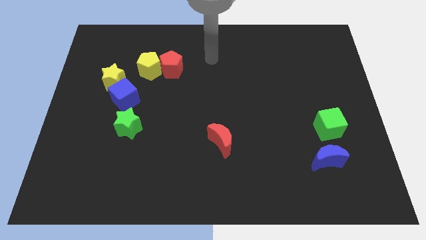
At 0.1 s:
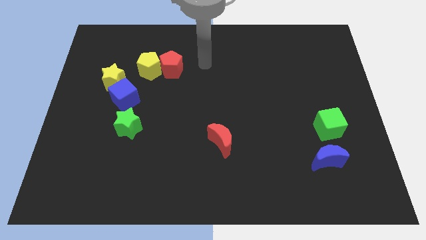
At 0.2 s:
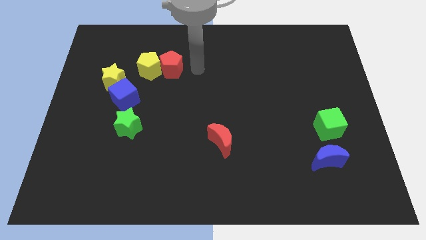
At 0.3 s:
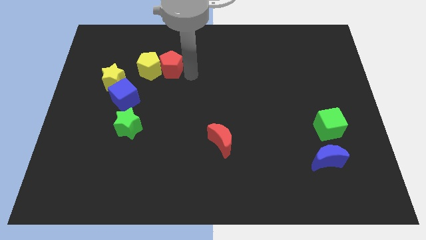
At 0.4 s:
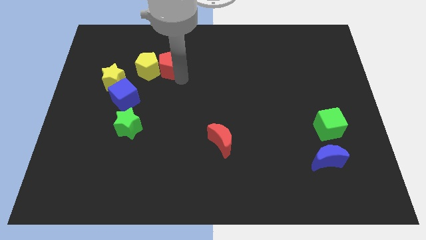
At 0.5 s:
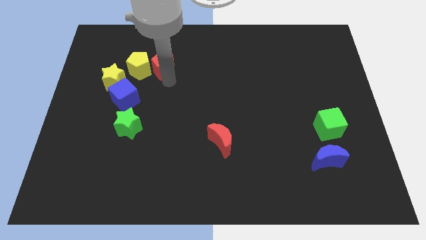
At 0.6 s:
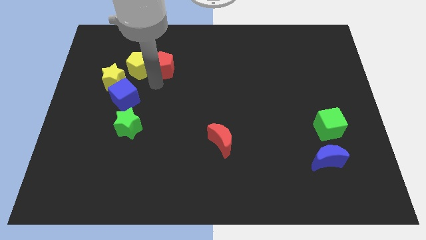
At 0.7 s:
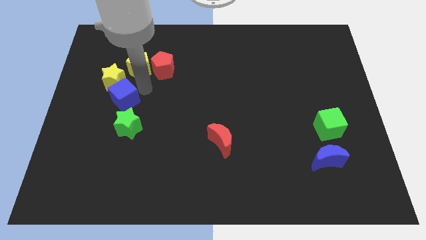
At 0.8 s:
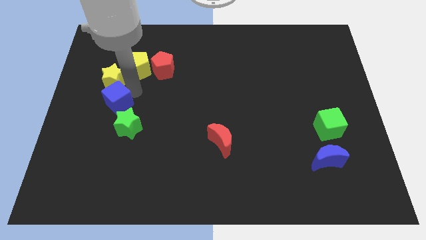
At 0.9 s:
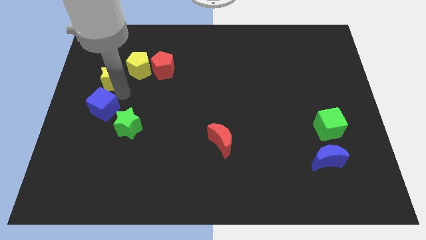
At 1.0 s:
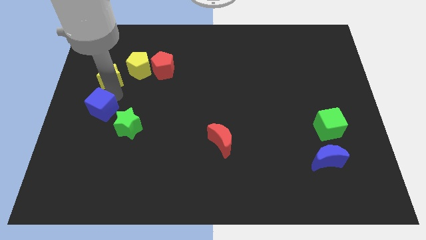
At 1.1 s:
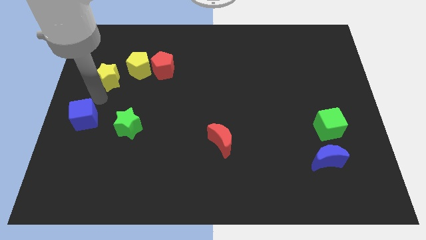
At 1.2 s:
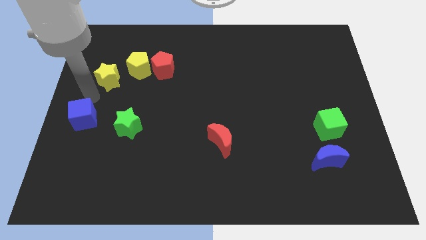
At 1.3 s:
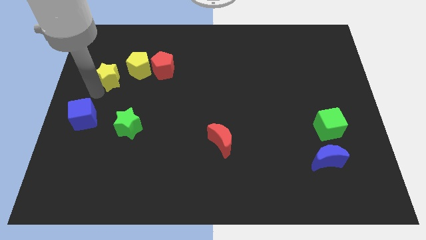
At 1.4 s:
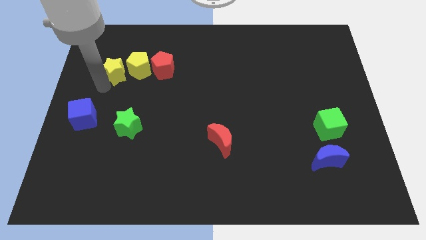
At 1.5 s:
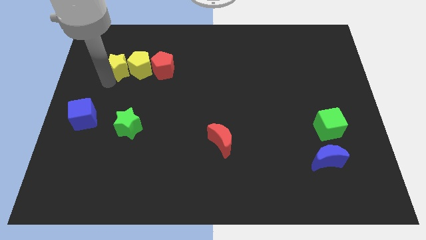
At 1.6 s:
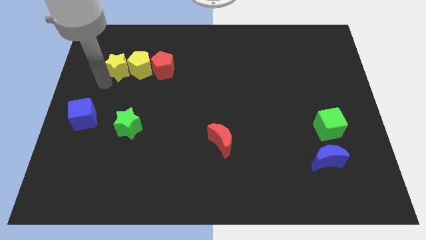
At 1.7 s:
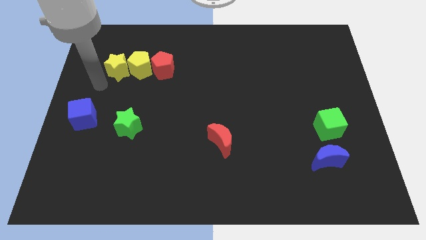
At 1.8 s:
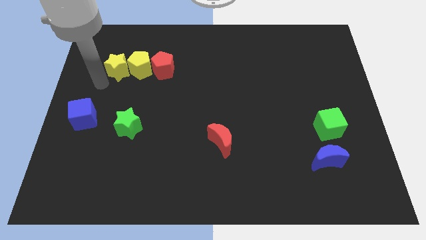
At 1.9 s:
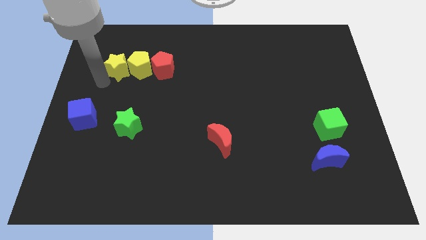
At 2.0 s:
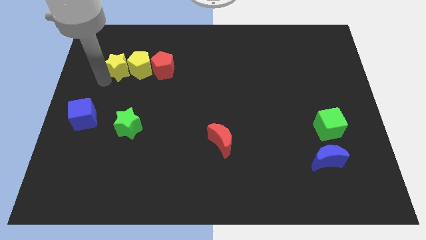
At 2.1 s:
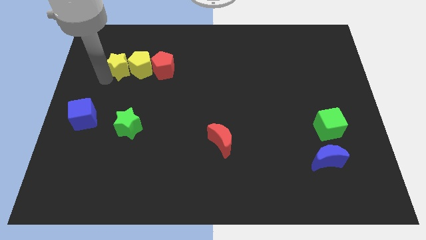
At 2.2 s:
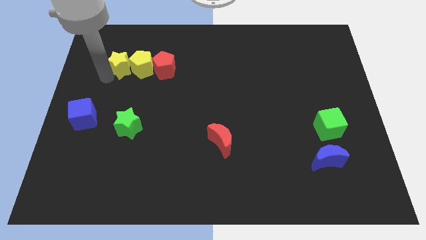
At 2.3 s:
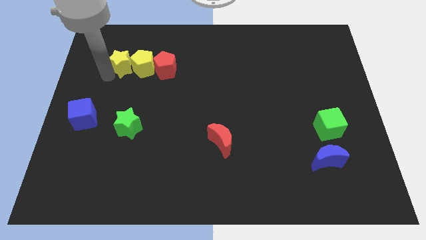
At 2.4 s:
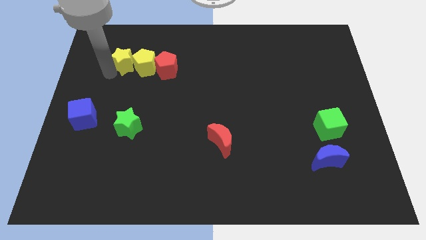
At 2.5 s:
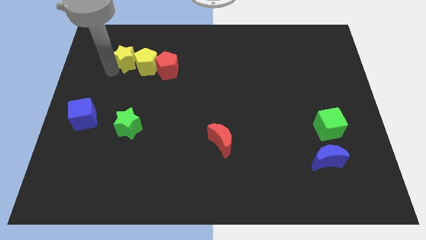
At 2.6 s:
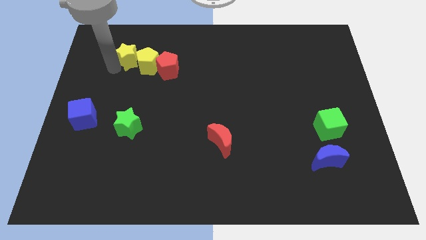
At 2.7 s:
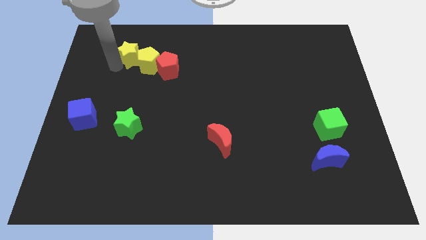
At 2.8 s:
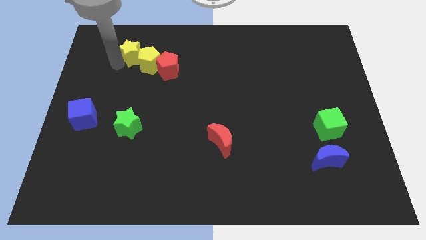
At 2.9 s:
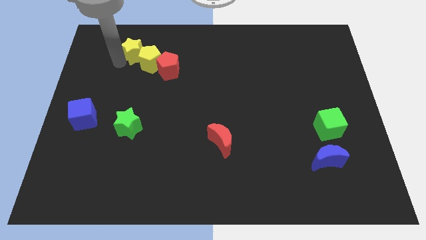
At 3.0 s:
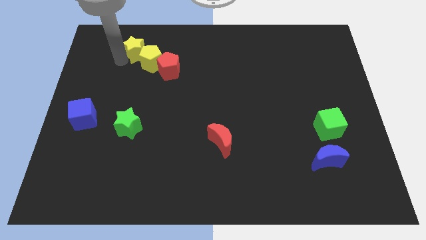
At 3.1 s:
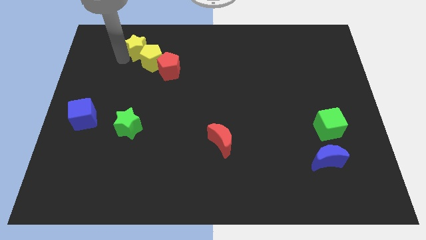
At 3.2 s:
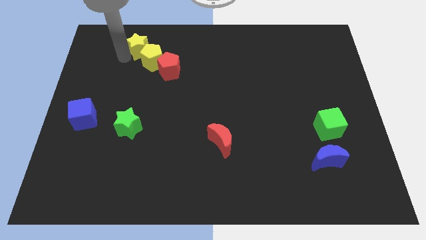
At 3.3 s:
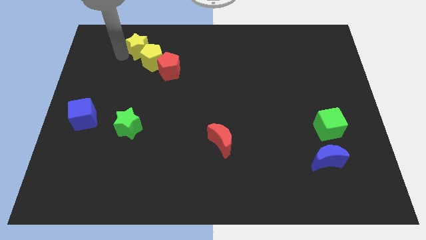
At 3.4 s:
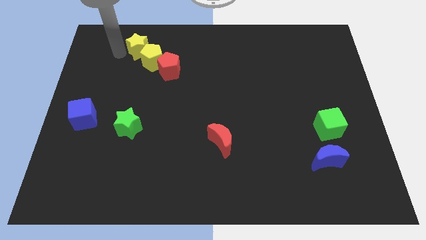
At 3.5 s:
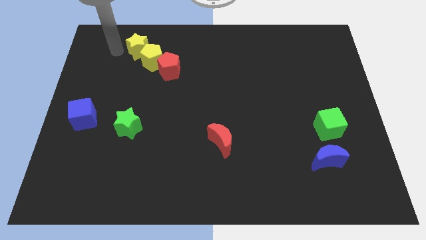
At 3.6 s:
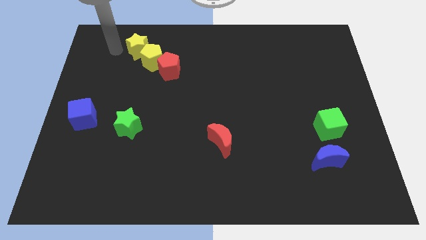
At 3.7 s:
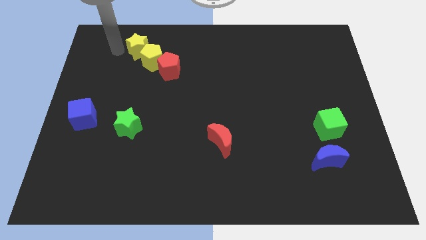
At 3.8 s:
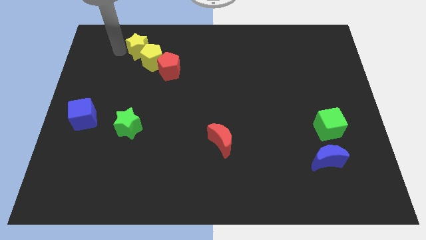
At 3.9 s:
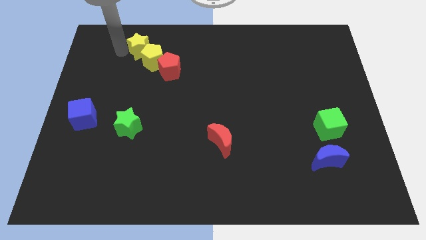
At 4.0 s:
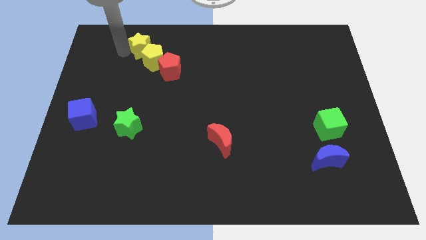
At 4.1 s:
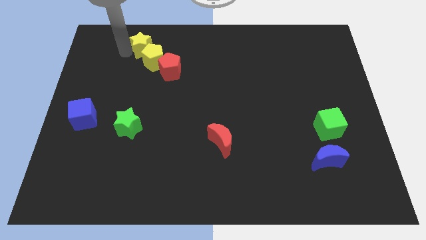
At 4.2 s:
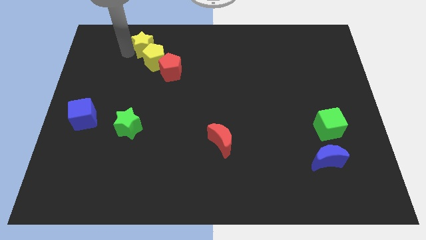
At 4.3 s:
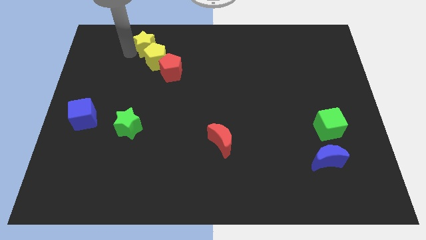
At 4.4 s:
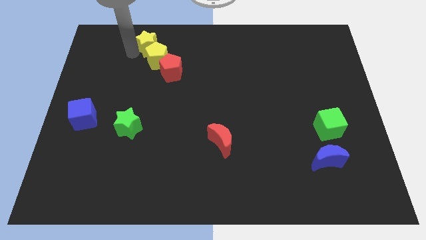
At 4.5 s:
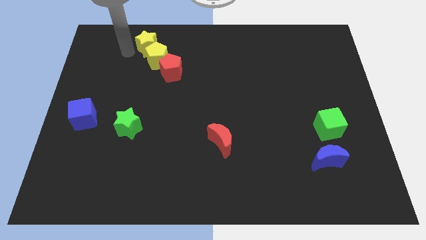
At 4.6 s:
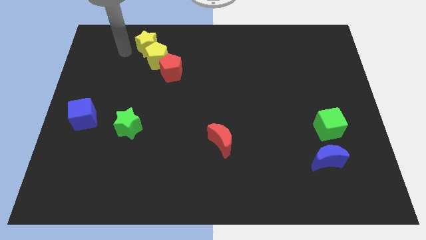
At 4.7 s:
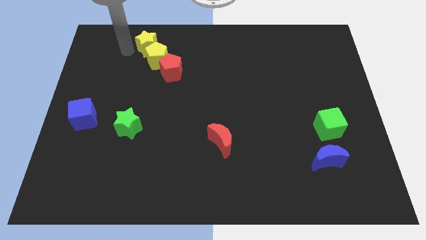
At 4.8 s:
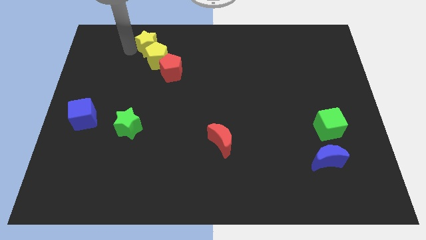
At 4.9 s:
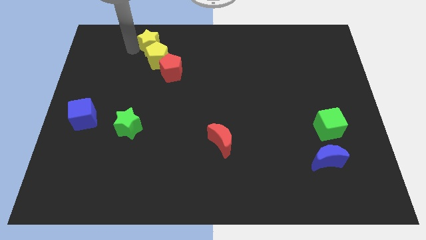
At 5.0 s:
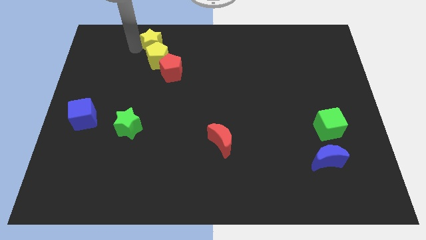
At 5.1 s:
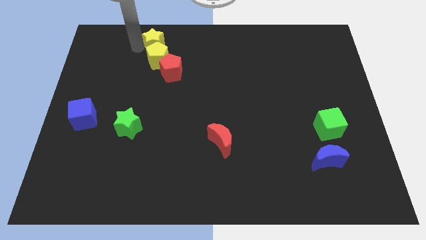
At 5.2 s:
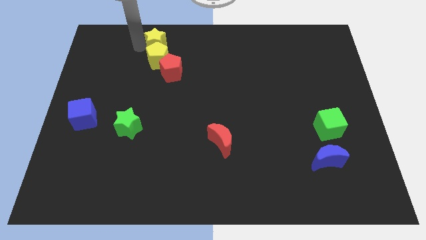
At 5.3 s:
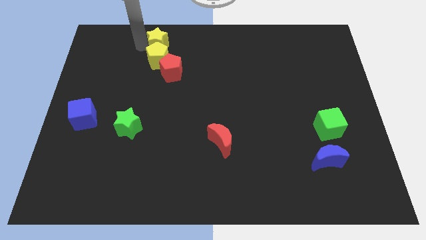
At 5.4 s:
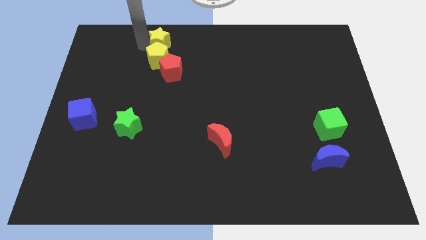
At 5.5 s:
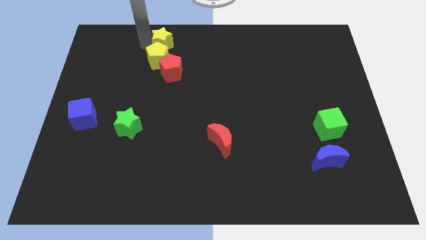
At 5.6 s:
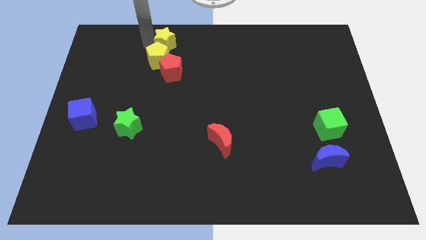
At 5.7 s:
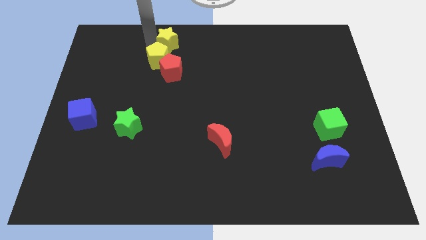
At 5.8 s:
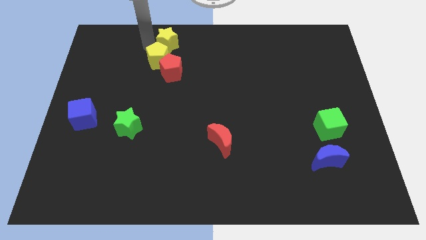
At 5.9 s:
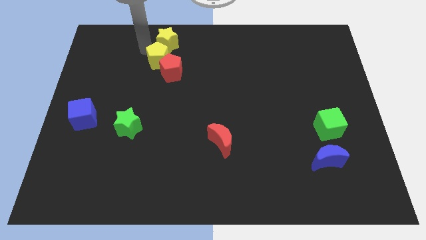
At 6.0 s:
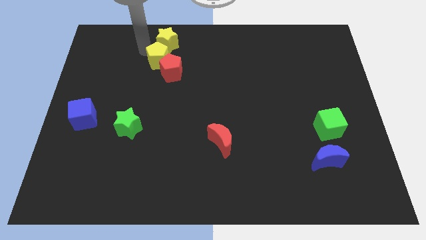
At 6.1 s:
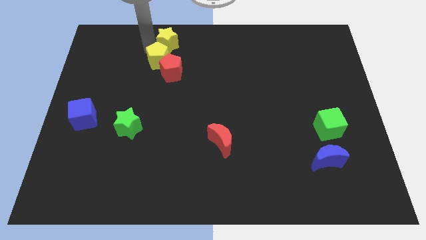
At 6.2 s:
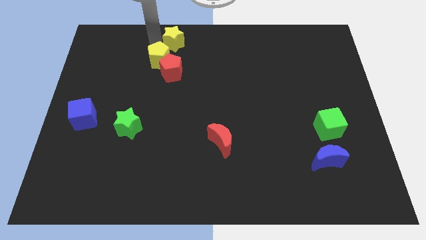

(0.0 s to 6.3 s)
slide the yellow star to the top side
